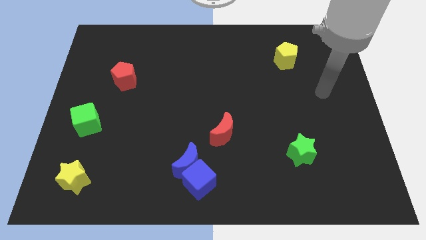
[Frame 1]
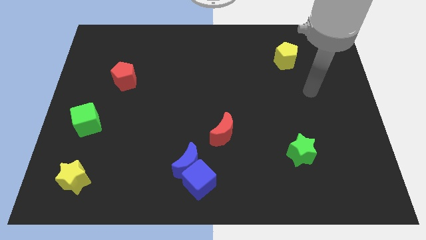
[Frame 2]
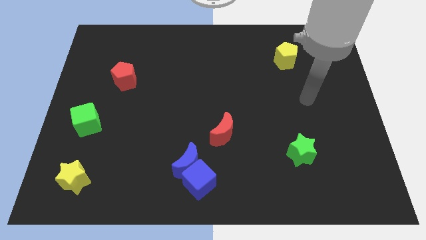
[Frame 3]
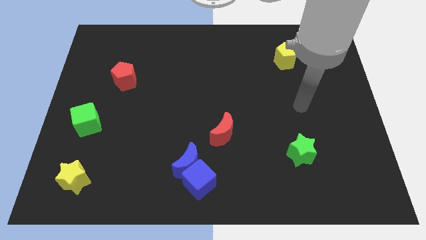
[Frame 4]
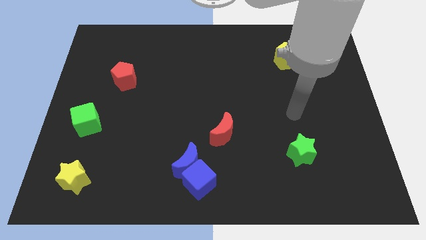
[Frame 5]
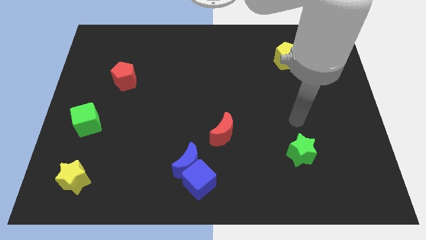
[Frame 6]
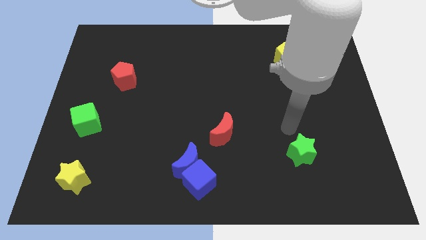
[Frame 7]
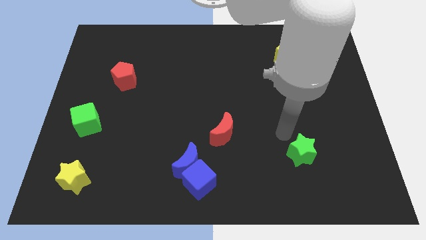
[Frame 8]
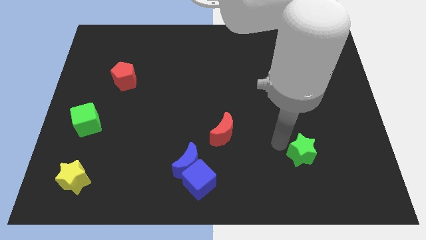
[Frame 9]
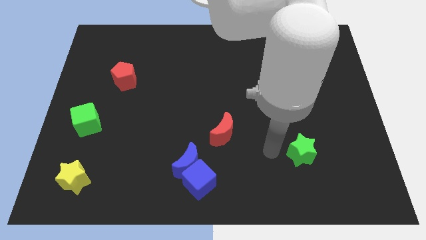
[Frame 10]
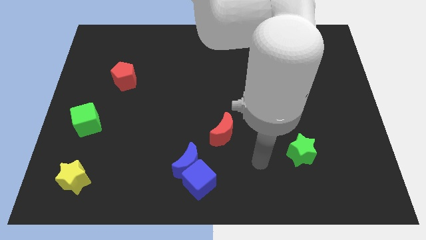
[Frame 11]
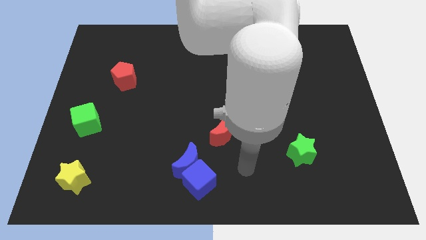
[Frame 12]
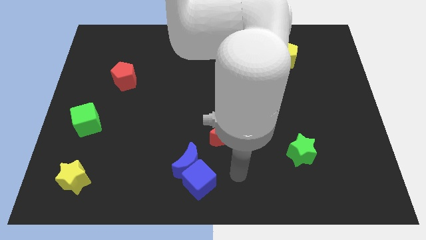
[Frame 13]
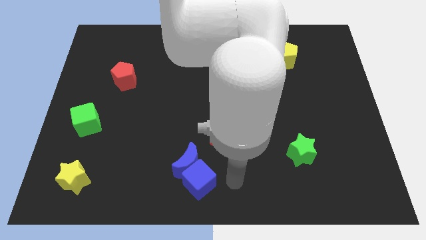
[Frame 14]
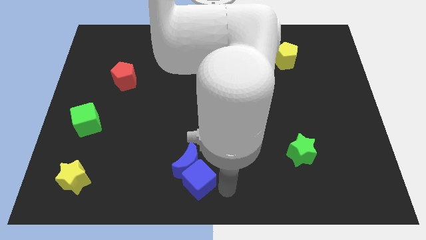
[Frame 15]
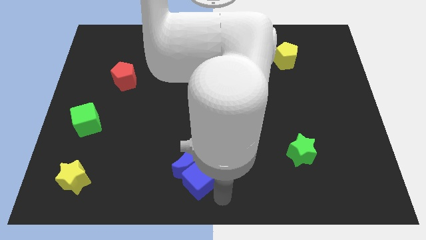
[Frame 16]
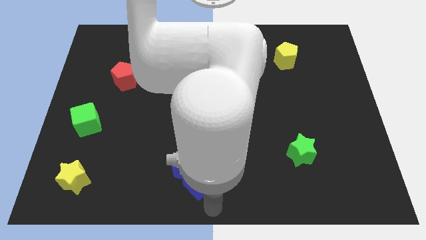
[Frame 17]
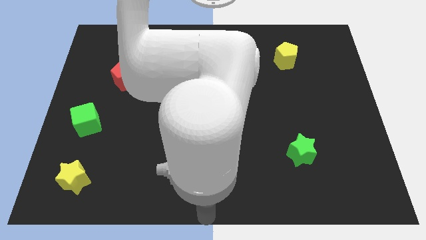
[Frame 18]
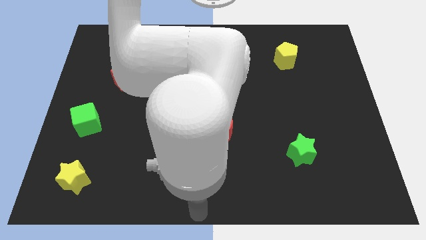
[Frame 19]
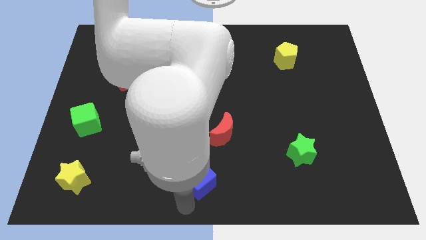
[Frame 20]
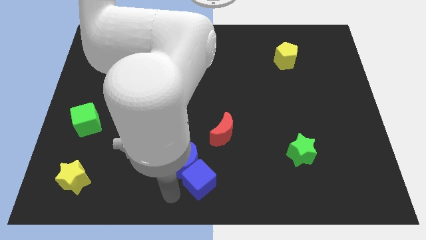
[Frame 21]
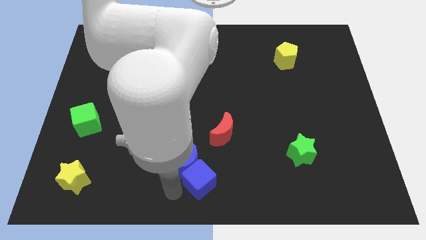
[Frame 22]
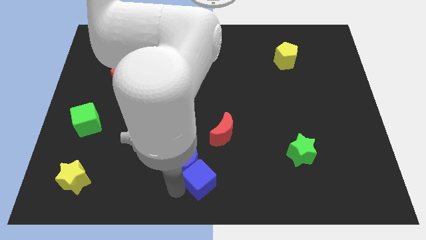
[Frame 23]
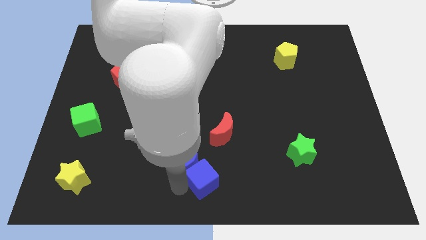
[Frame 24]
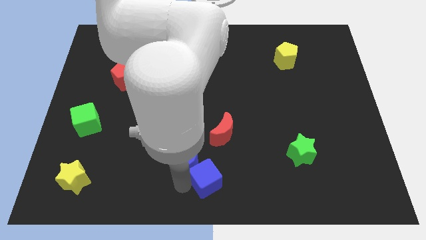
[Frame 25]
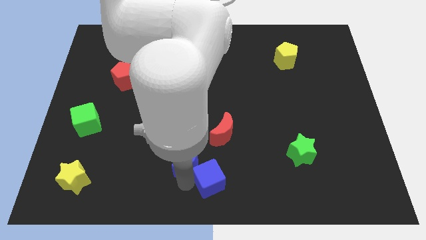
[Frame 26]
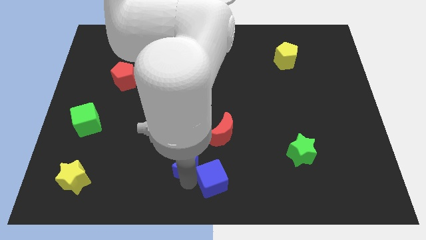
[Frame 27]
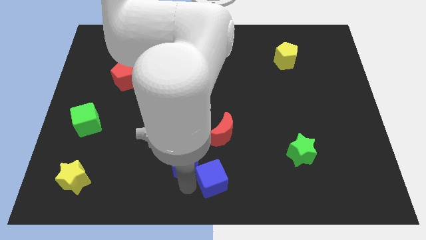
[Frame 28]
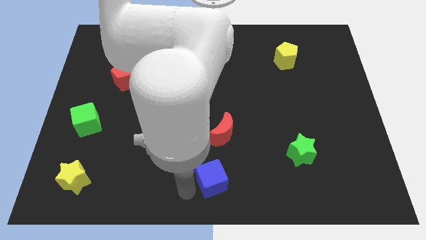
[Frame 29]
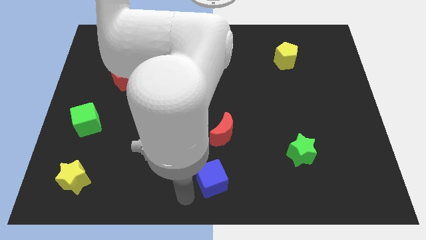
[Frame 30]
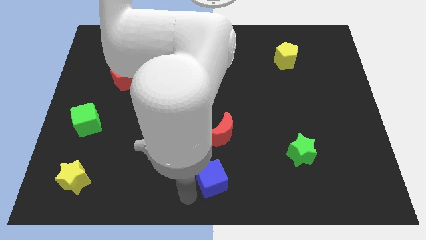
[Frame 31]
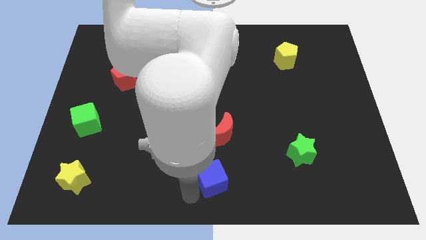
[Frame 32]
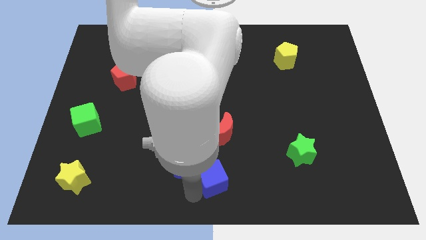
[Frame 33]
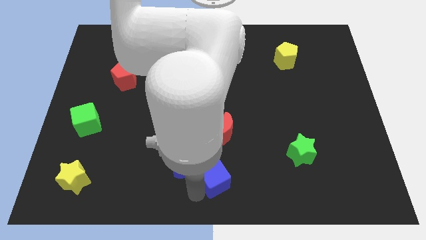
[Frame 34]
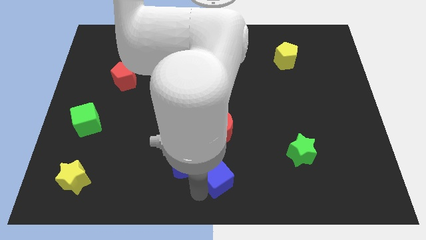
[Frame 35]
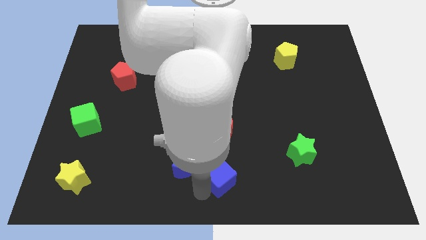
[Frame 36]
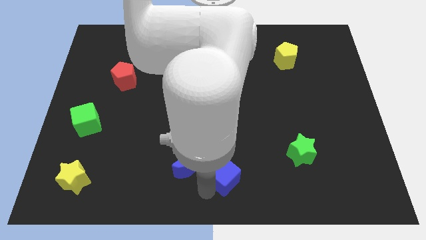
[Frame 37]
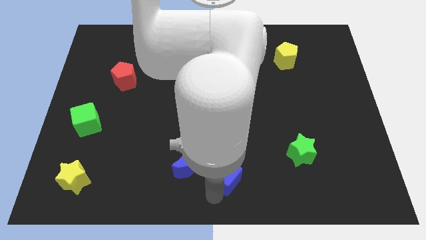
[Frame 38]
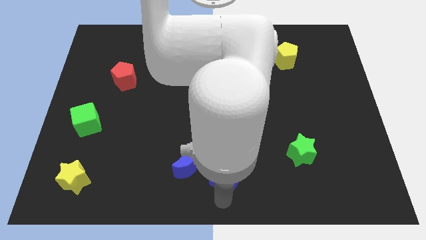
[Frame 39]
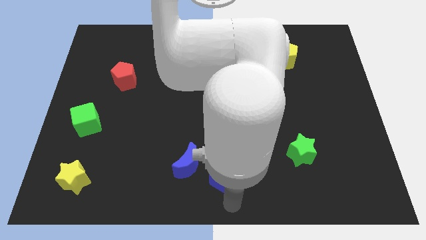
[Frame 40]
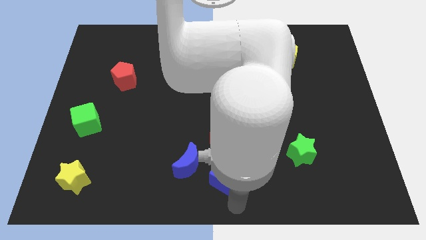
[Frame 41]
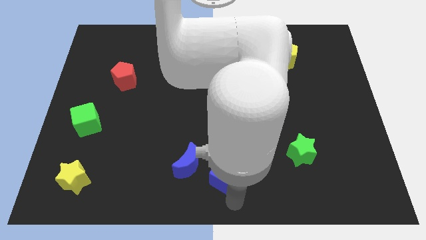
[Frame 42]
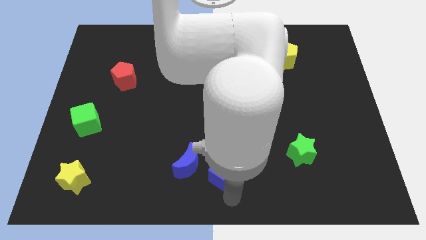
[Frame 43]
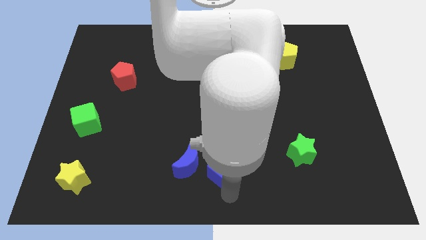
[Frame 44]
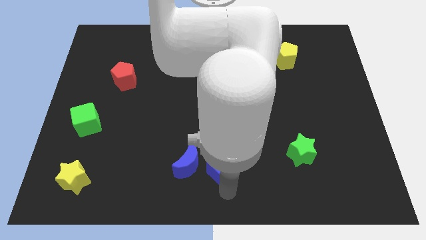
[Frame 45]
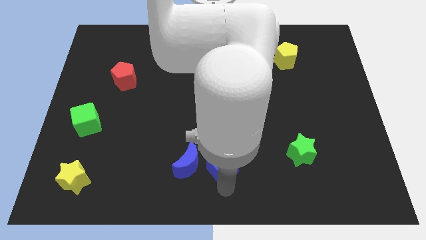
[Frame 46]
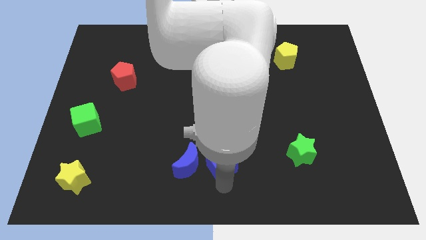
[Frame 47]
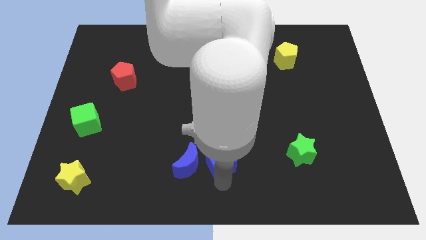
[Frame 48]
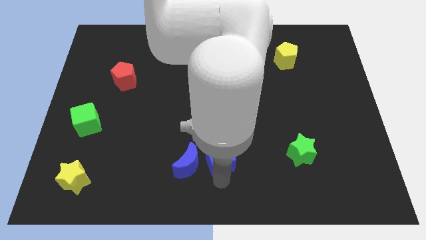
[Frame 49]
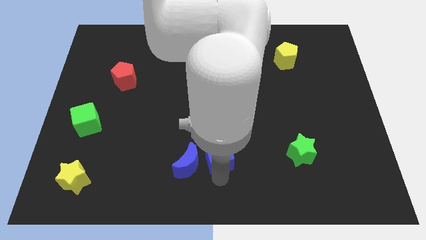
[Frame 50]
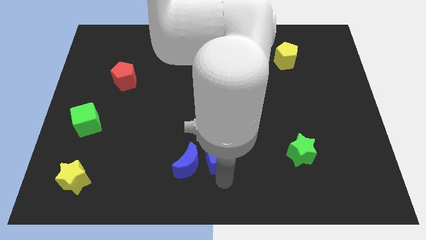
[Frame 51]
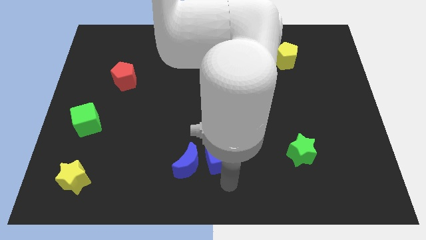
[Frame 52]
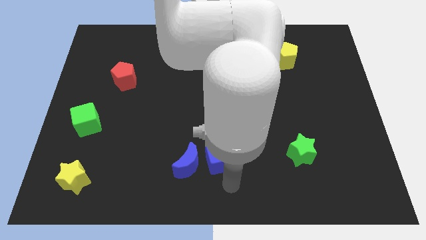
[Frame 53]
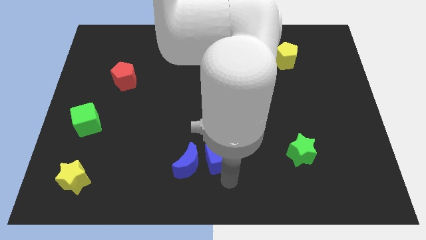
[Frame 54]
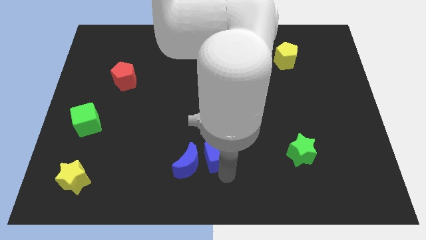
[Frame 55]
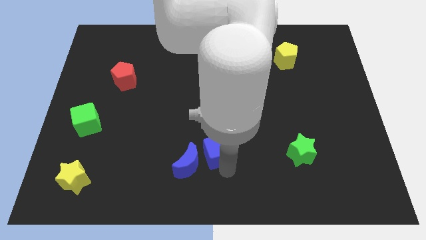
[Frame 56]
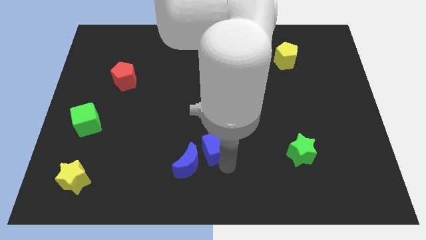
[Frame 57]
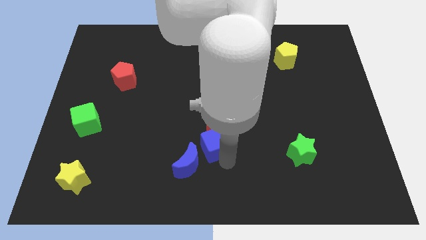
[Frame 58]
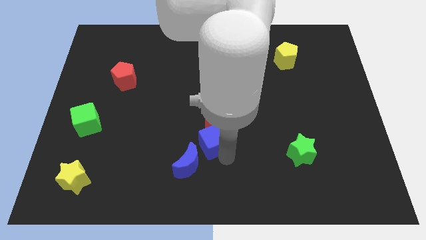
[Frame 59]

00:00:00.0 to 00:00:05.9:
move the blue cube to the top side of the blue moon

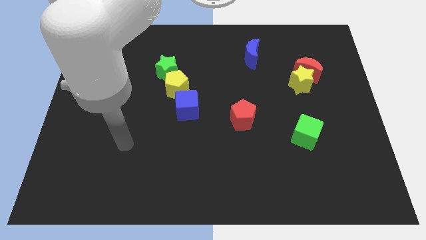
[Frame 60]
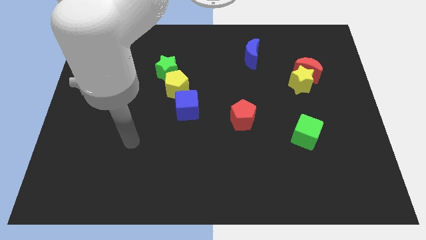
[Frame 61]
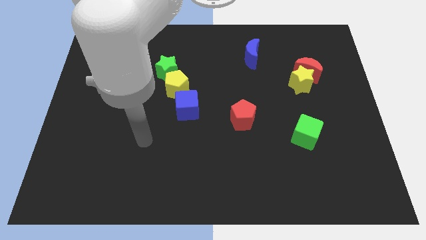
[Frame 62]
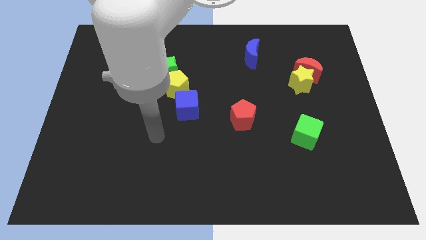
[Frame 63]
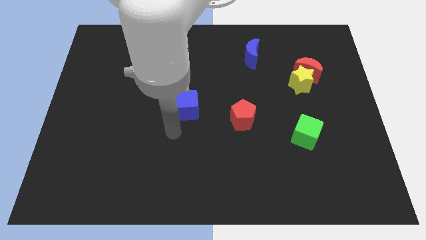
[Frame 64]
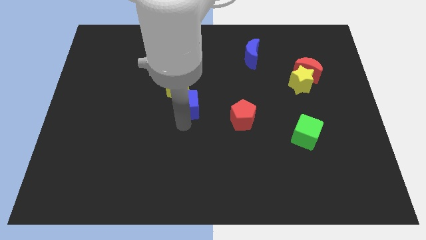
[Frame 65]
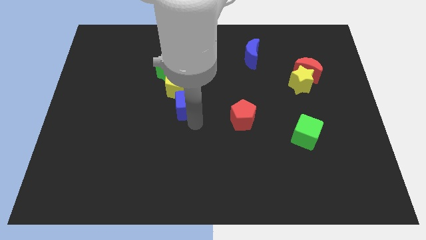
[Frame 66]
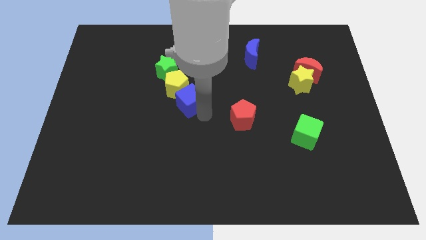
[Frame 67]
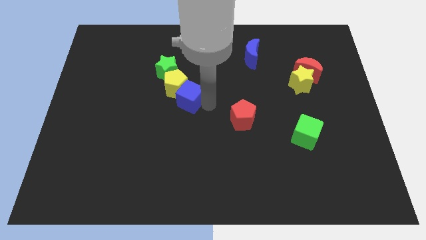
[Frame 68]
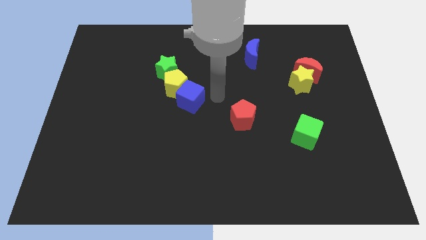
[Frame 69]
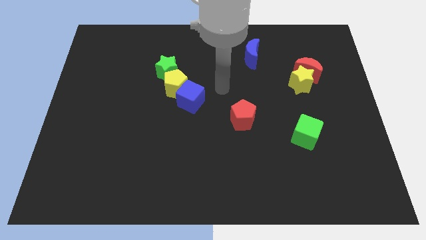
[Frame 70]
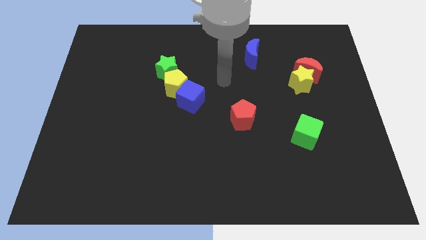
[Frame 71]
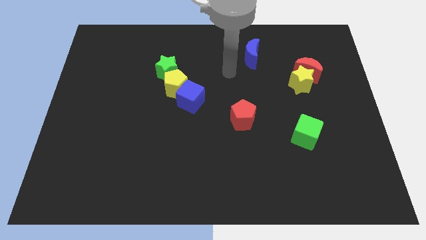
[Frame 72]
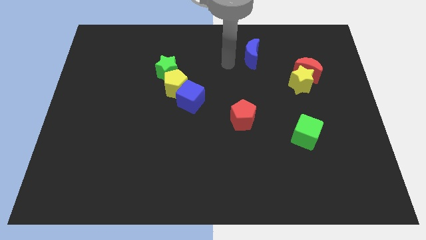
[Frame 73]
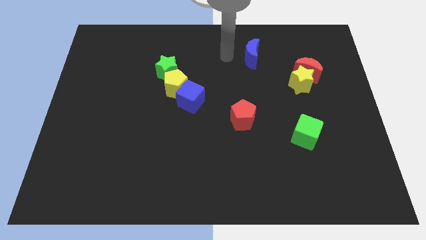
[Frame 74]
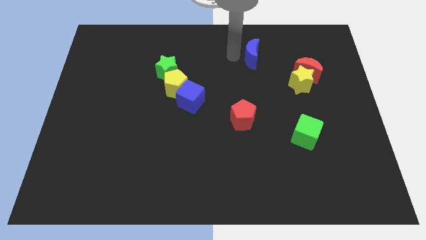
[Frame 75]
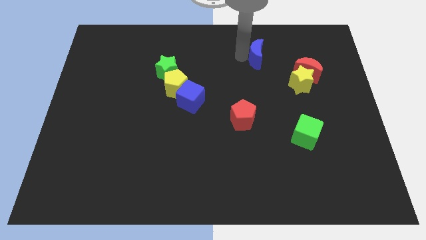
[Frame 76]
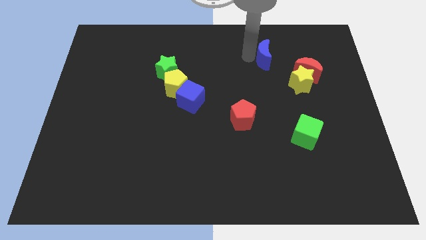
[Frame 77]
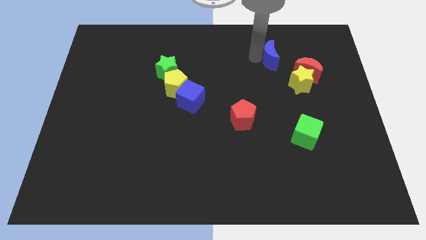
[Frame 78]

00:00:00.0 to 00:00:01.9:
slide the blue moon to the top left of the red moon

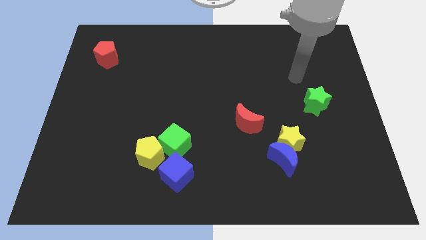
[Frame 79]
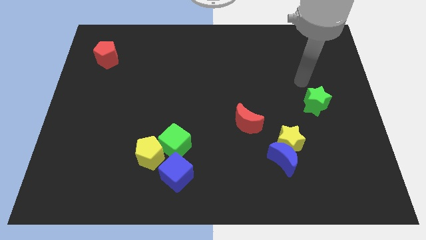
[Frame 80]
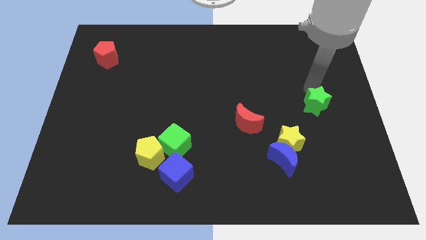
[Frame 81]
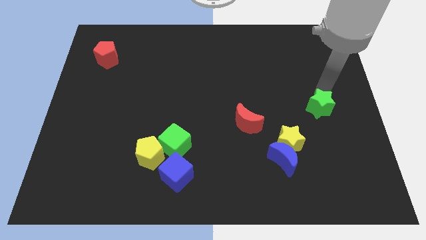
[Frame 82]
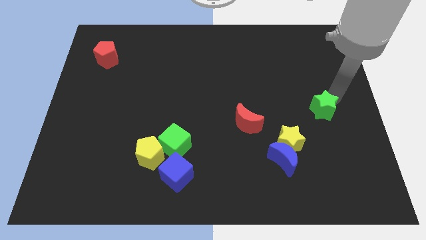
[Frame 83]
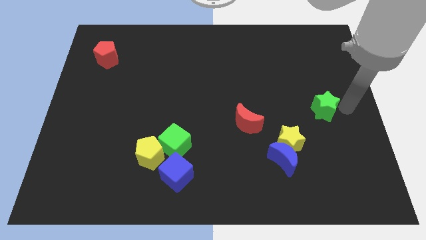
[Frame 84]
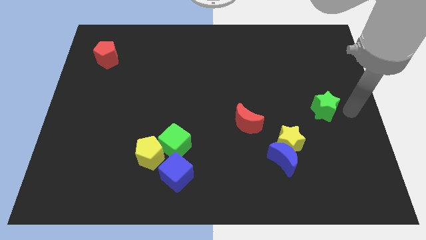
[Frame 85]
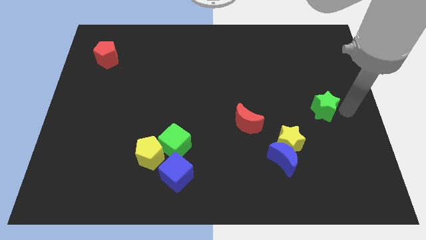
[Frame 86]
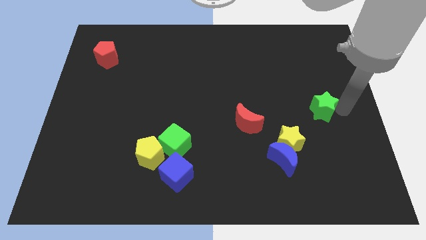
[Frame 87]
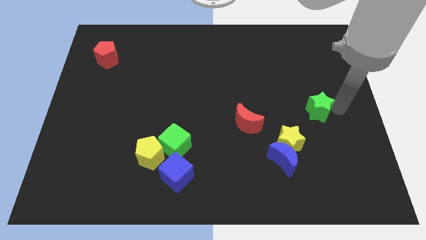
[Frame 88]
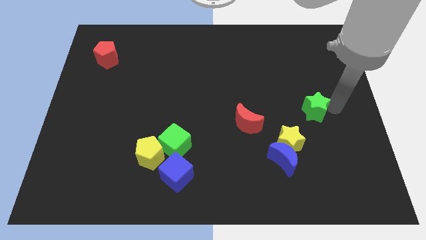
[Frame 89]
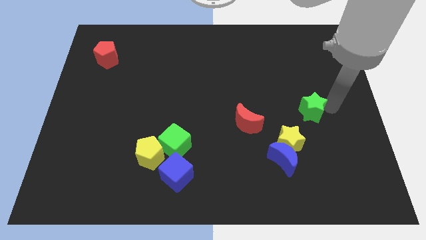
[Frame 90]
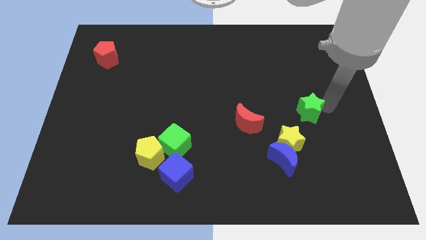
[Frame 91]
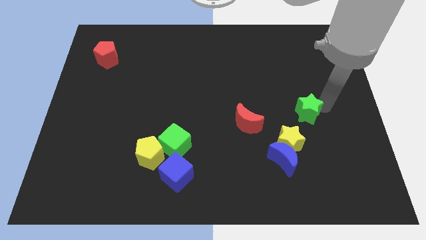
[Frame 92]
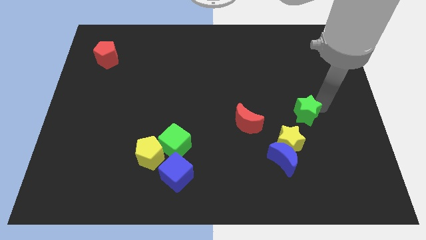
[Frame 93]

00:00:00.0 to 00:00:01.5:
slide the green star to the top side of the yellow star
